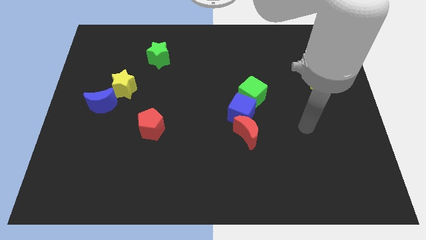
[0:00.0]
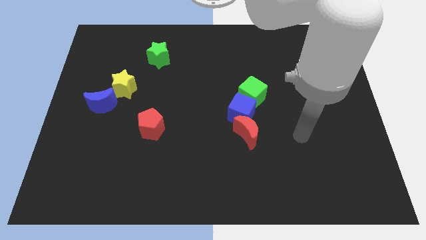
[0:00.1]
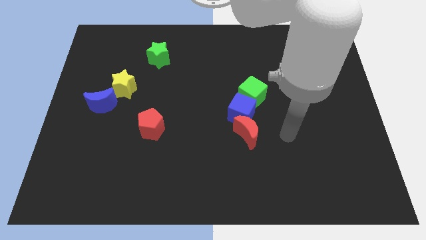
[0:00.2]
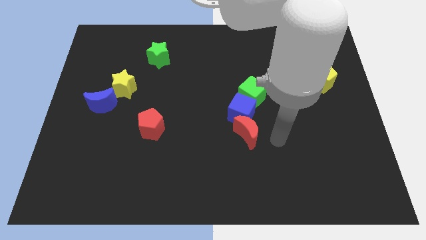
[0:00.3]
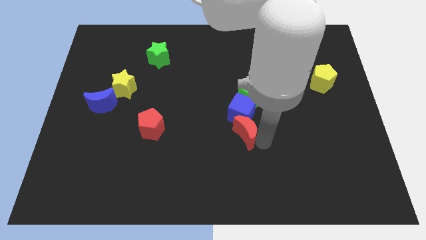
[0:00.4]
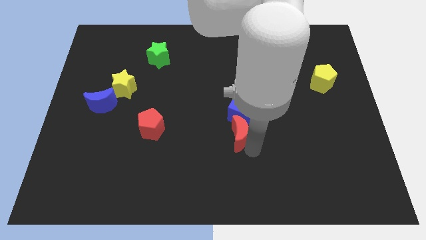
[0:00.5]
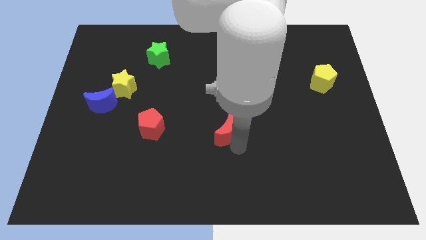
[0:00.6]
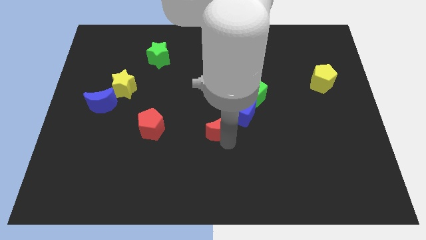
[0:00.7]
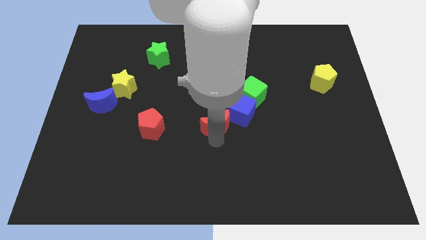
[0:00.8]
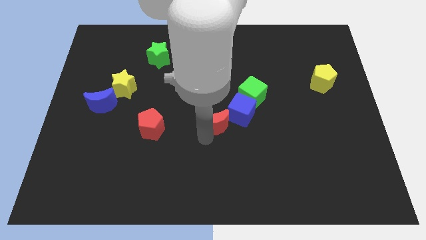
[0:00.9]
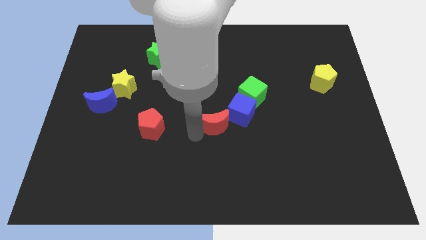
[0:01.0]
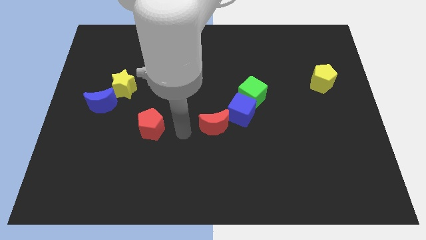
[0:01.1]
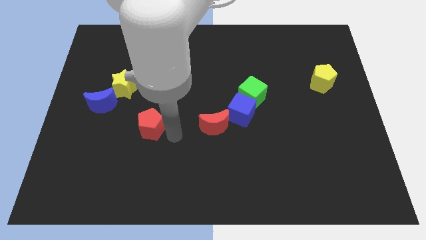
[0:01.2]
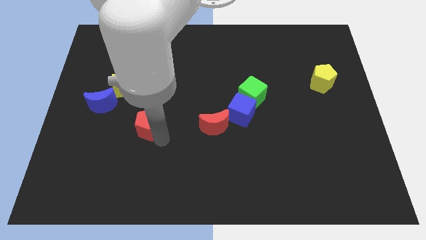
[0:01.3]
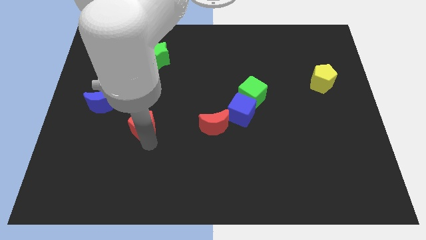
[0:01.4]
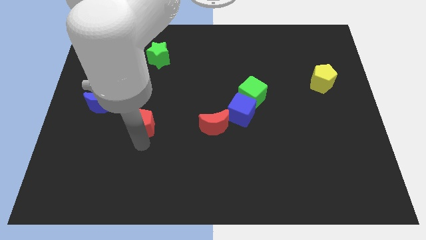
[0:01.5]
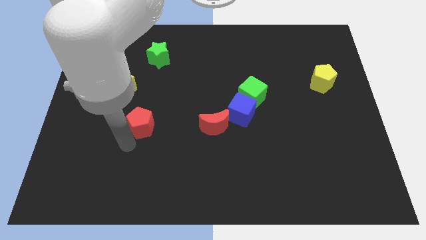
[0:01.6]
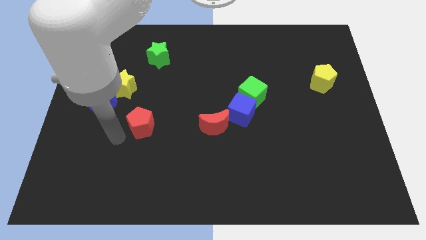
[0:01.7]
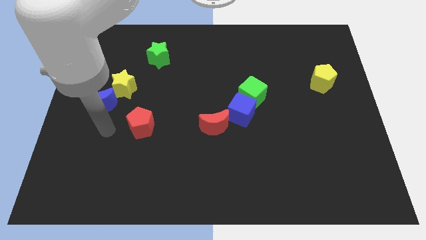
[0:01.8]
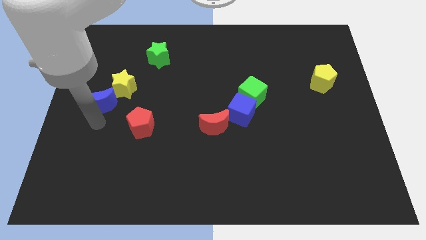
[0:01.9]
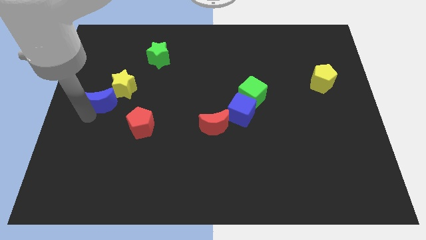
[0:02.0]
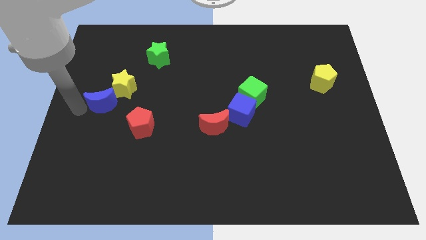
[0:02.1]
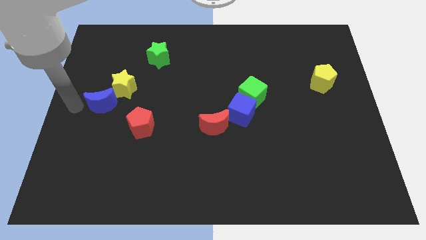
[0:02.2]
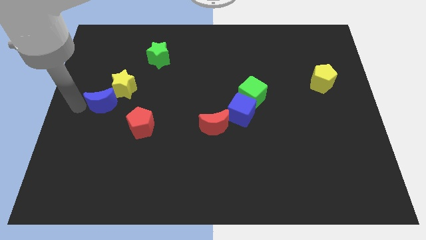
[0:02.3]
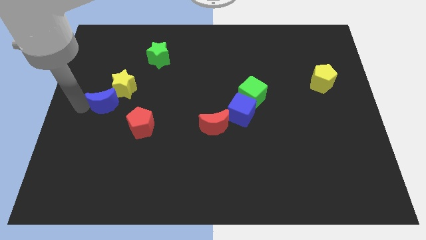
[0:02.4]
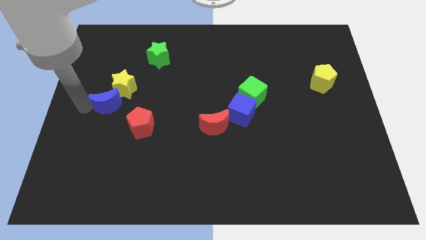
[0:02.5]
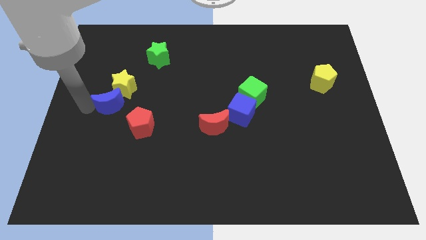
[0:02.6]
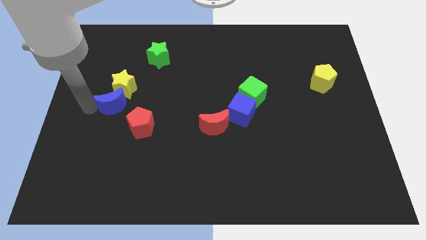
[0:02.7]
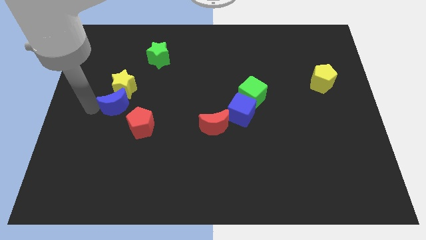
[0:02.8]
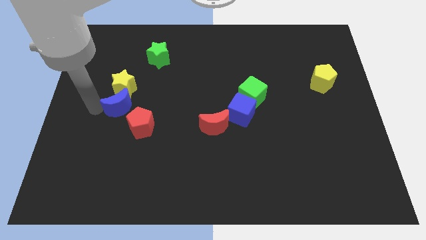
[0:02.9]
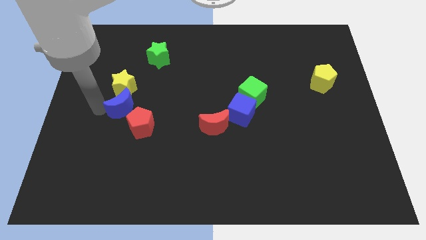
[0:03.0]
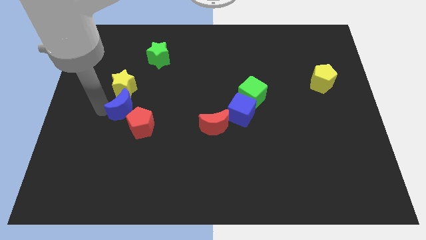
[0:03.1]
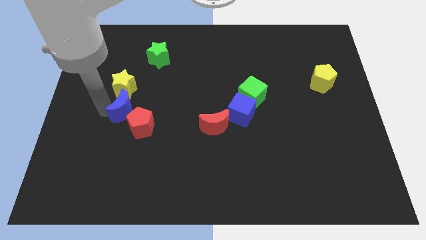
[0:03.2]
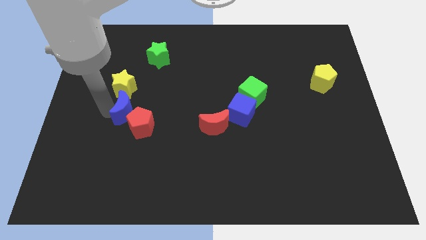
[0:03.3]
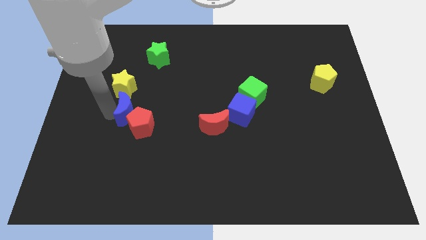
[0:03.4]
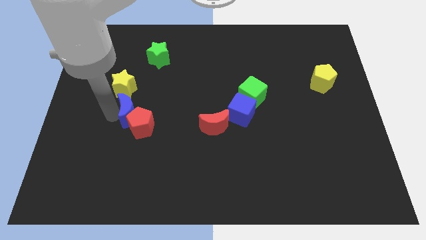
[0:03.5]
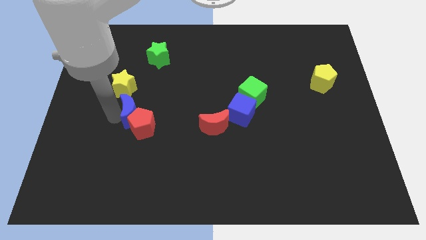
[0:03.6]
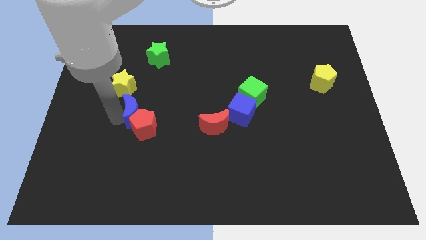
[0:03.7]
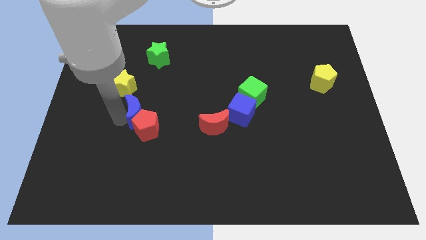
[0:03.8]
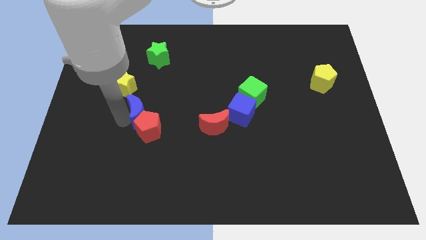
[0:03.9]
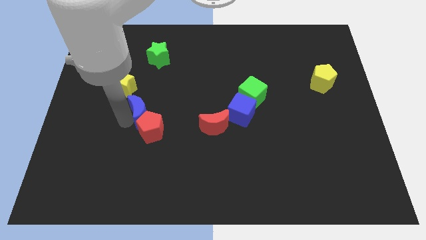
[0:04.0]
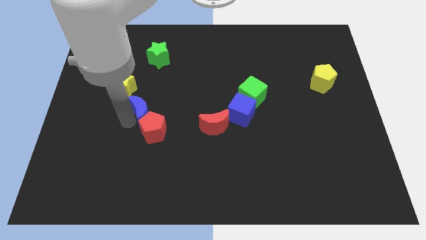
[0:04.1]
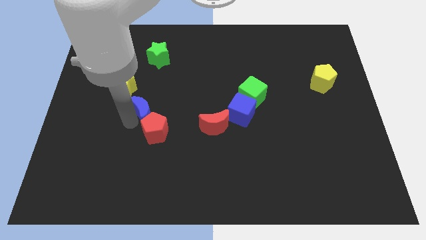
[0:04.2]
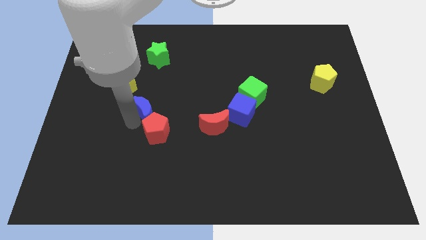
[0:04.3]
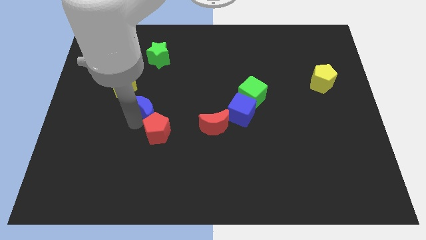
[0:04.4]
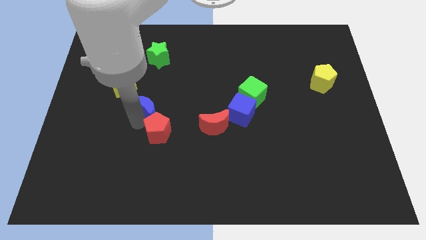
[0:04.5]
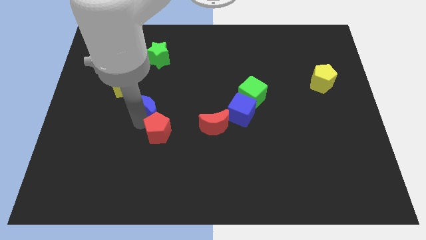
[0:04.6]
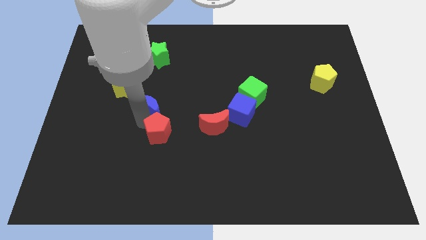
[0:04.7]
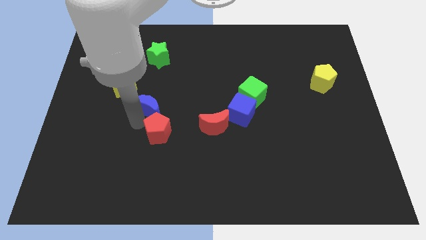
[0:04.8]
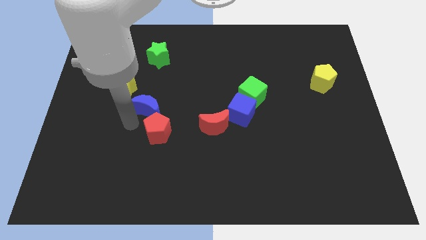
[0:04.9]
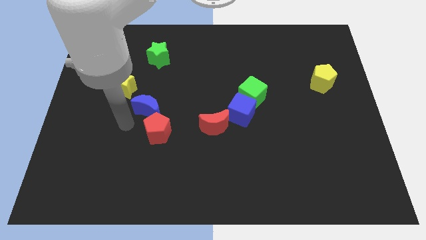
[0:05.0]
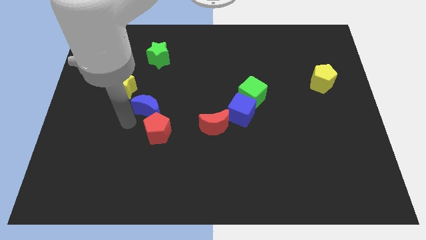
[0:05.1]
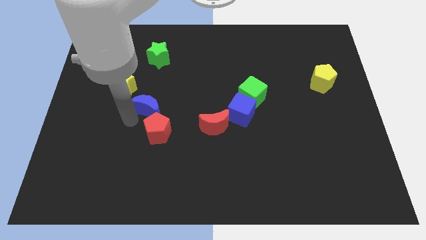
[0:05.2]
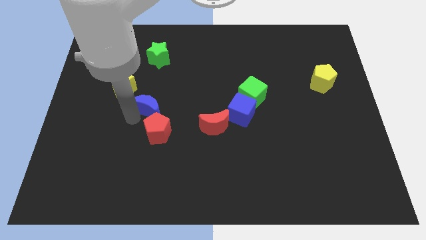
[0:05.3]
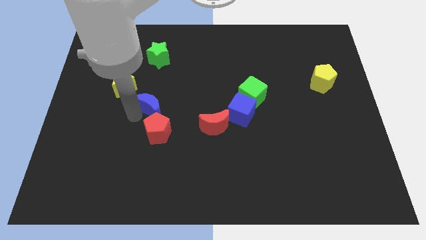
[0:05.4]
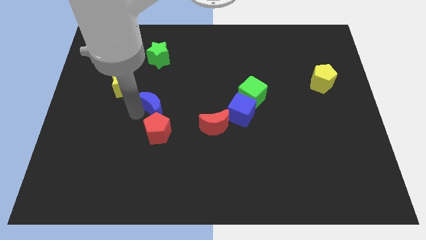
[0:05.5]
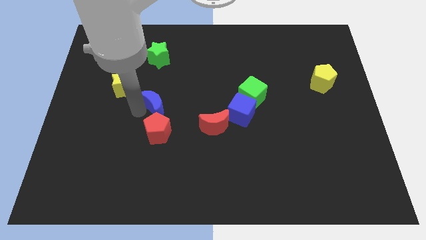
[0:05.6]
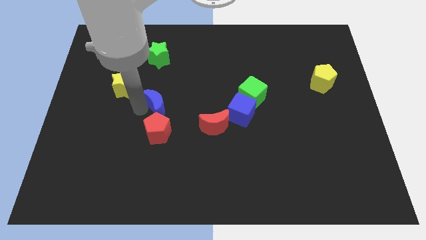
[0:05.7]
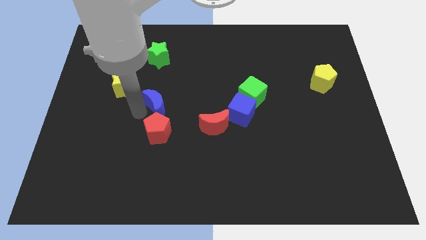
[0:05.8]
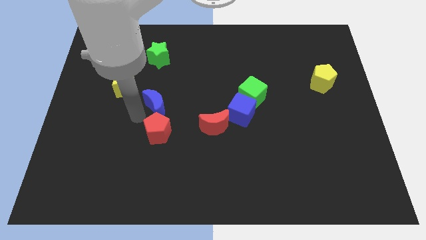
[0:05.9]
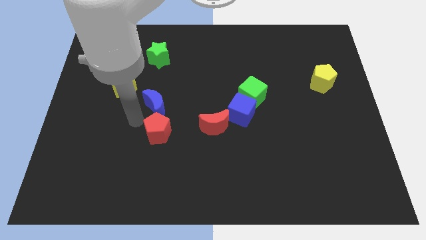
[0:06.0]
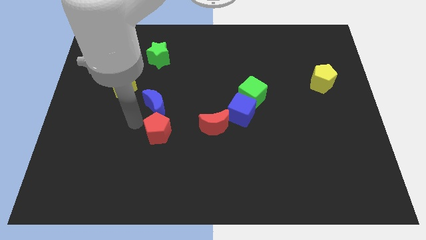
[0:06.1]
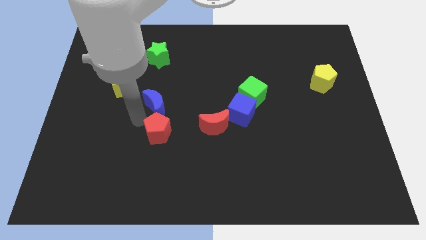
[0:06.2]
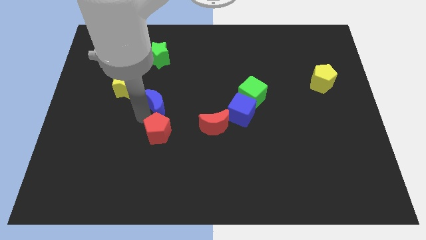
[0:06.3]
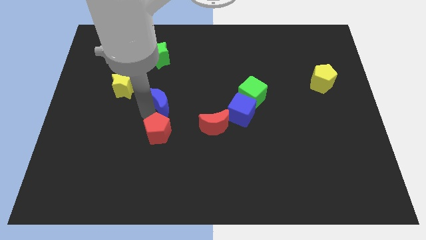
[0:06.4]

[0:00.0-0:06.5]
move the blue moon to the middle
